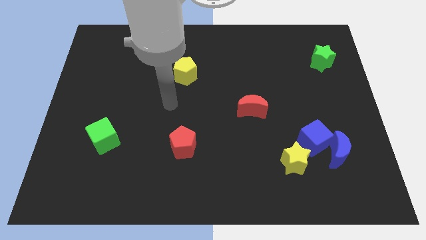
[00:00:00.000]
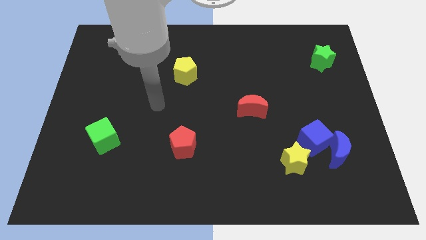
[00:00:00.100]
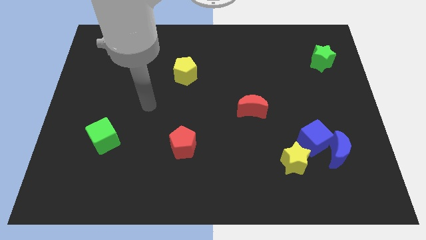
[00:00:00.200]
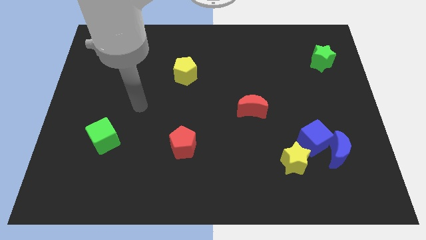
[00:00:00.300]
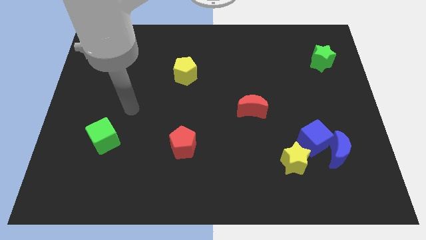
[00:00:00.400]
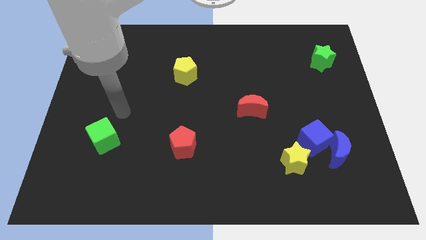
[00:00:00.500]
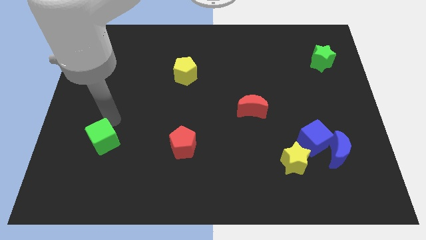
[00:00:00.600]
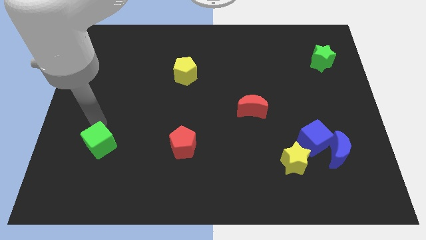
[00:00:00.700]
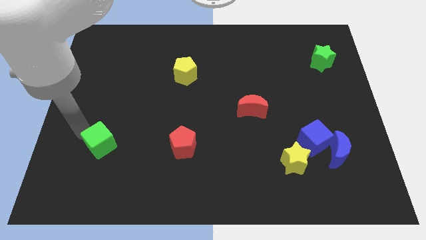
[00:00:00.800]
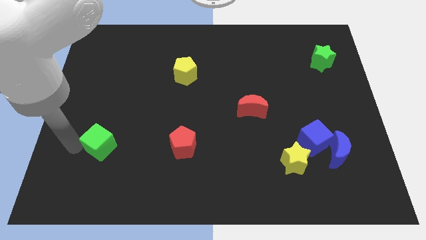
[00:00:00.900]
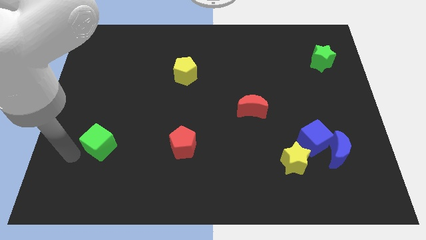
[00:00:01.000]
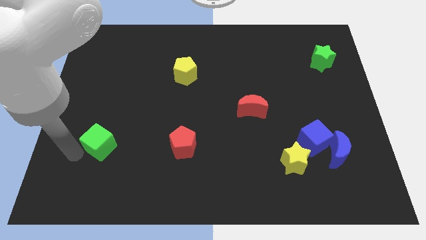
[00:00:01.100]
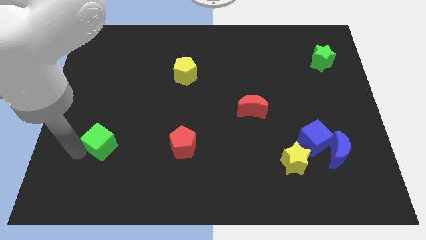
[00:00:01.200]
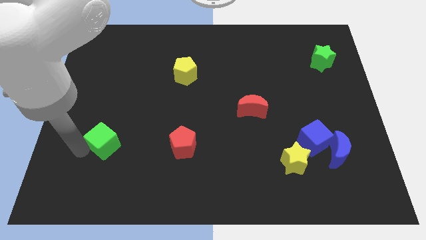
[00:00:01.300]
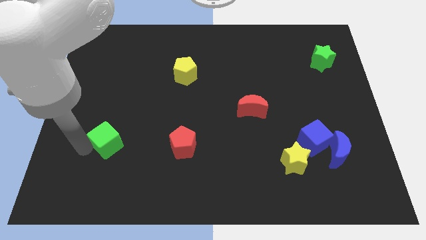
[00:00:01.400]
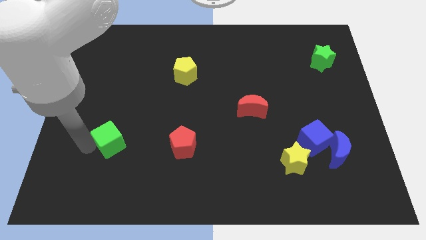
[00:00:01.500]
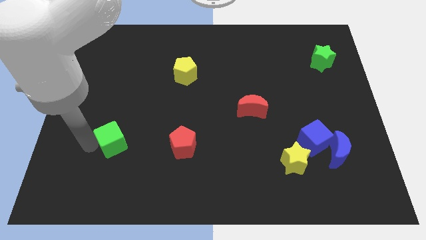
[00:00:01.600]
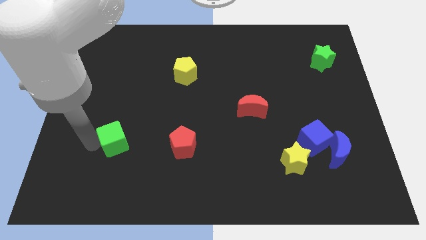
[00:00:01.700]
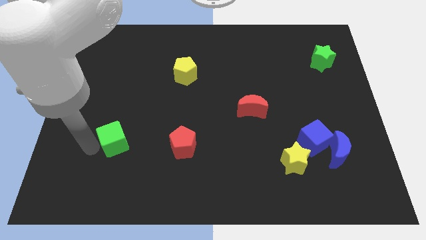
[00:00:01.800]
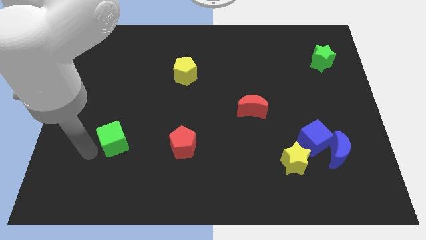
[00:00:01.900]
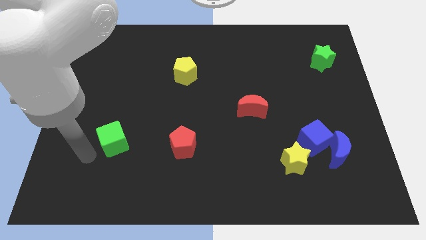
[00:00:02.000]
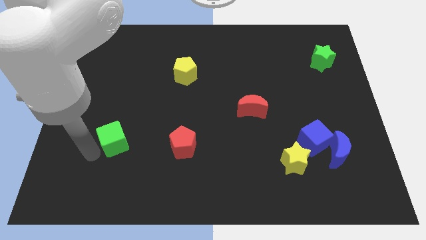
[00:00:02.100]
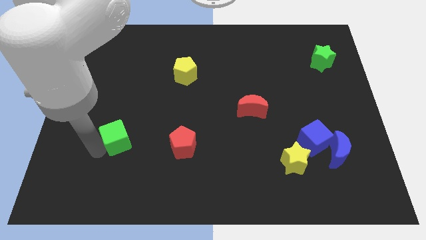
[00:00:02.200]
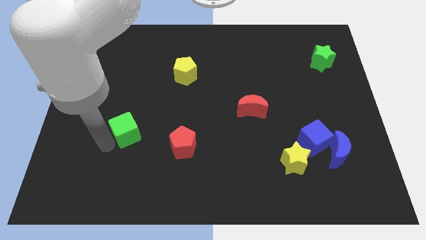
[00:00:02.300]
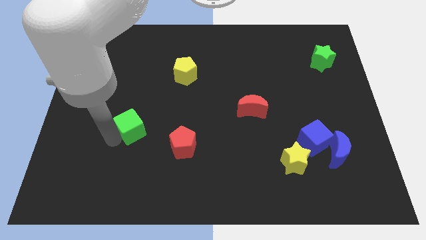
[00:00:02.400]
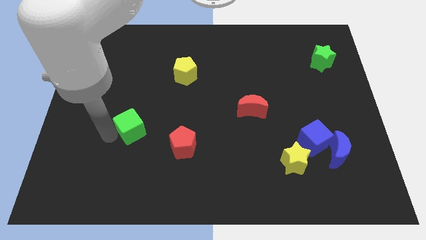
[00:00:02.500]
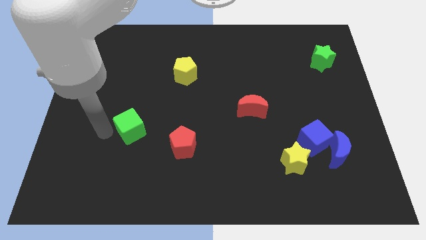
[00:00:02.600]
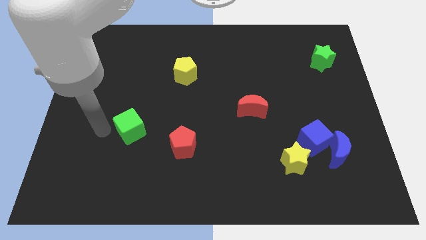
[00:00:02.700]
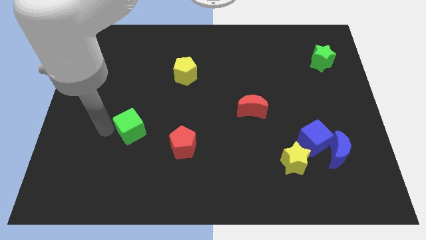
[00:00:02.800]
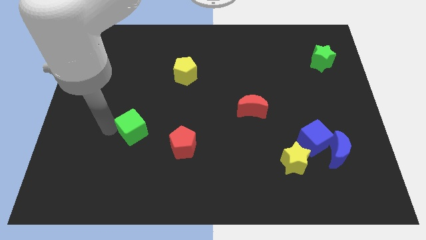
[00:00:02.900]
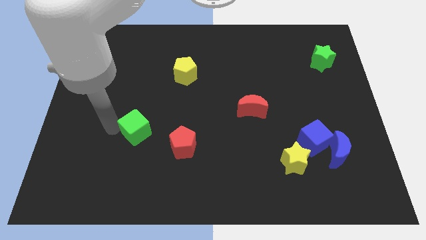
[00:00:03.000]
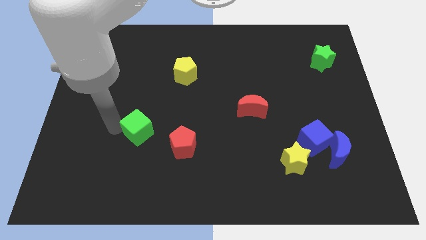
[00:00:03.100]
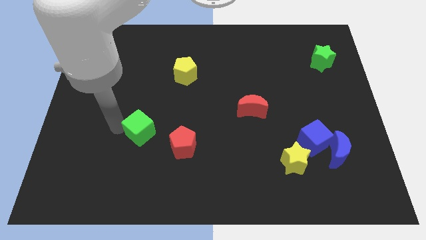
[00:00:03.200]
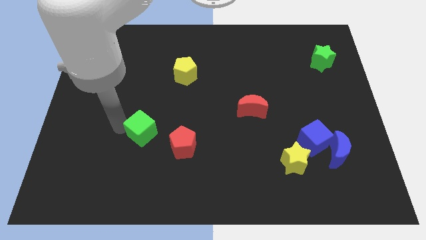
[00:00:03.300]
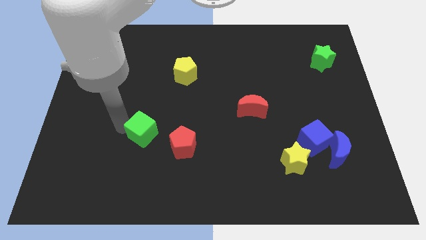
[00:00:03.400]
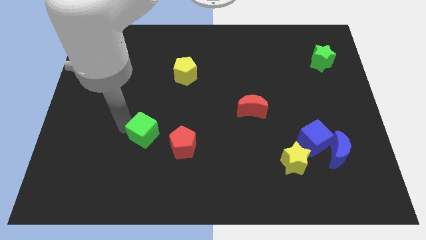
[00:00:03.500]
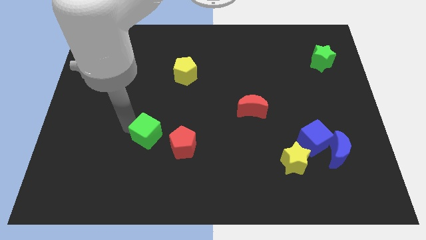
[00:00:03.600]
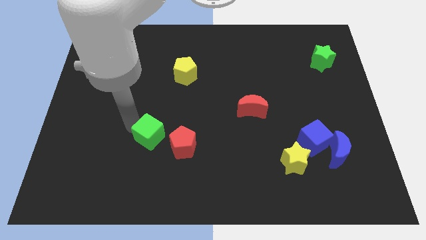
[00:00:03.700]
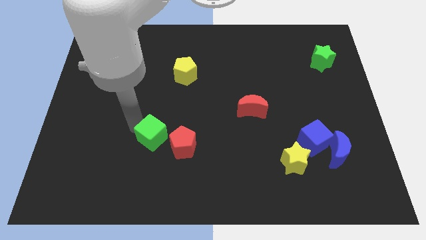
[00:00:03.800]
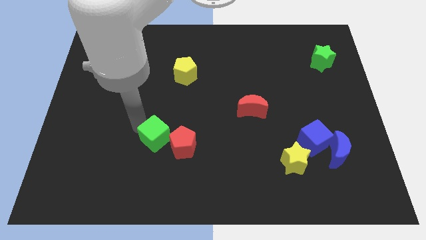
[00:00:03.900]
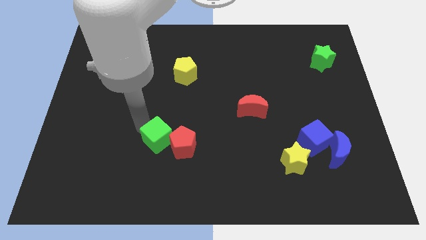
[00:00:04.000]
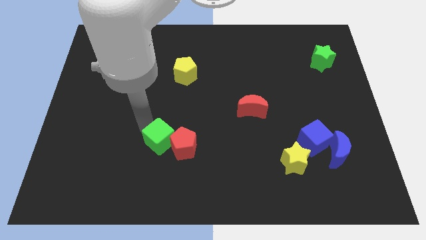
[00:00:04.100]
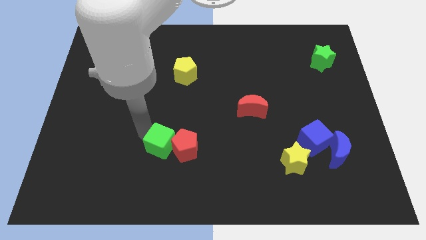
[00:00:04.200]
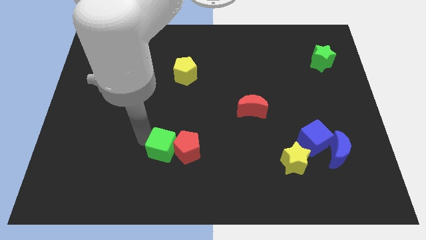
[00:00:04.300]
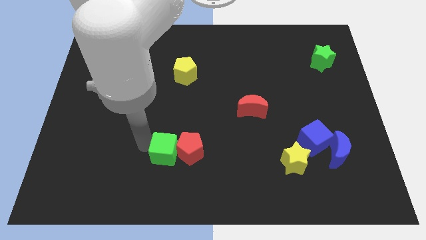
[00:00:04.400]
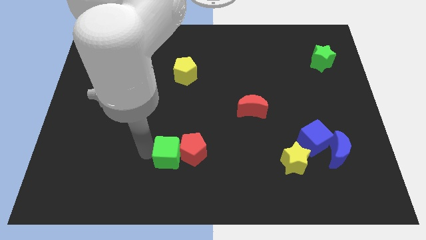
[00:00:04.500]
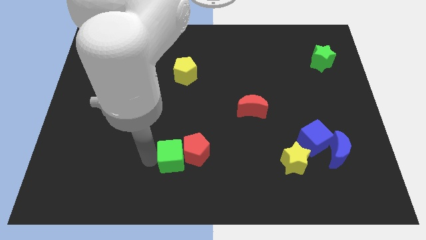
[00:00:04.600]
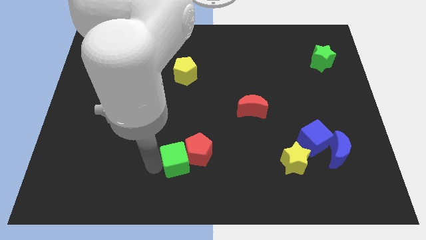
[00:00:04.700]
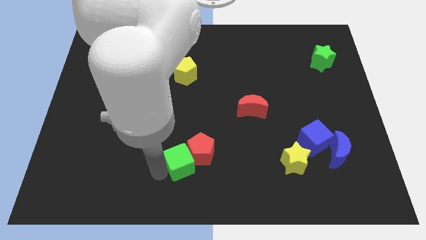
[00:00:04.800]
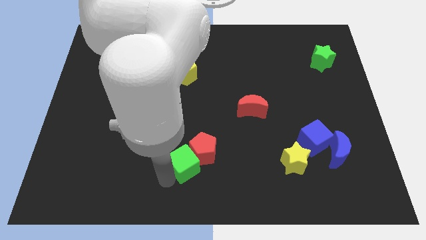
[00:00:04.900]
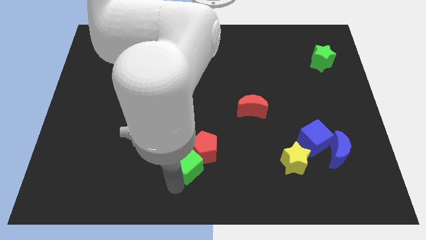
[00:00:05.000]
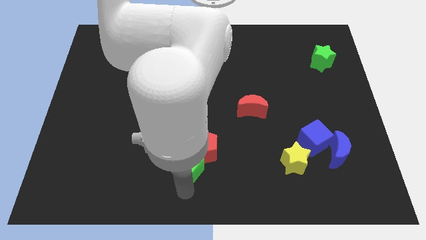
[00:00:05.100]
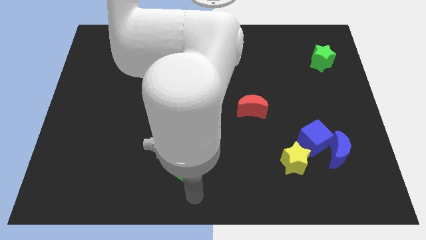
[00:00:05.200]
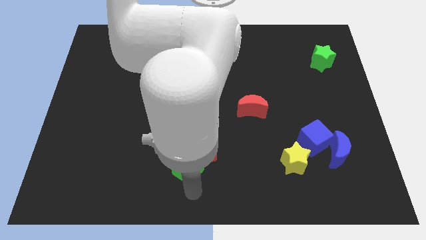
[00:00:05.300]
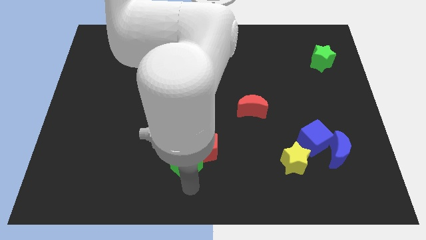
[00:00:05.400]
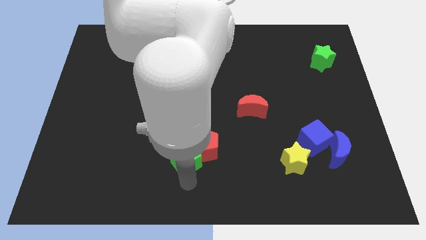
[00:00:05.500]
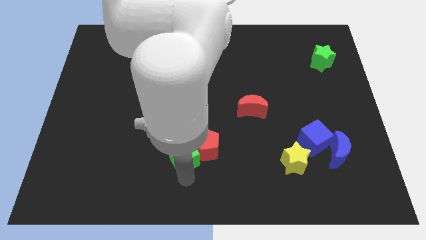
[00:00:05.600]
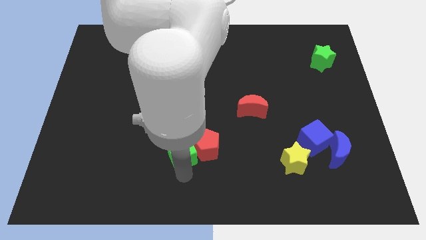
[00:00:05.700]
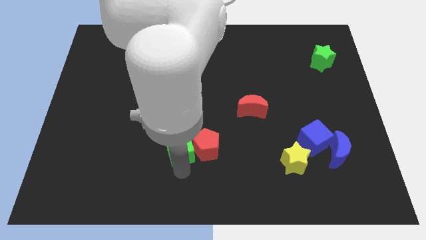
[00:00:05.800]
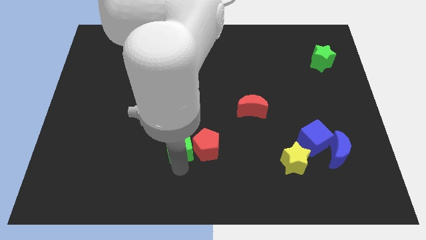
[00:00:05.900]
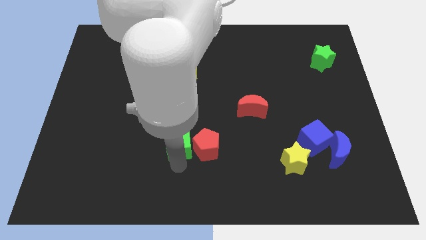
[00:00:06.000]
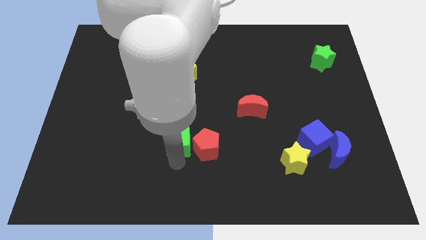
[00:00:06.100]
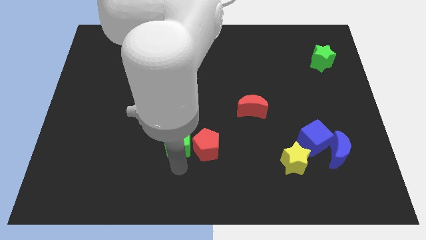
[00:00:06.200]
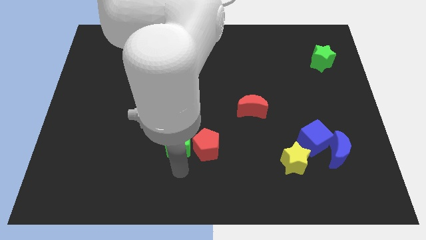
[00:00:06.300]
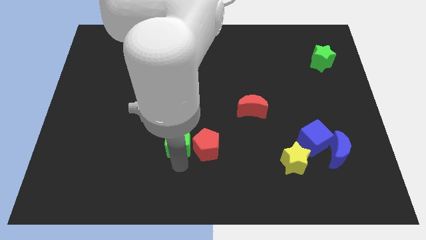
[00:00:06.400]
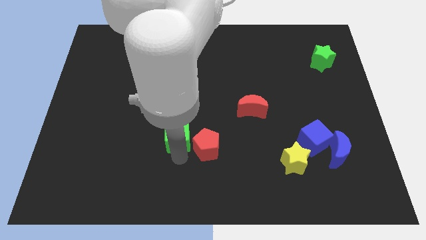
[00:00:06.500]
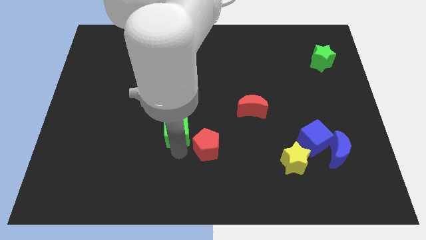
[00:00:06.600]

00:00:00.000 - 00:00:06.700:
move the green cube to the middle
